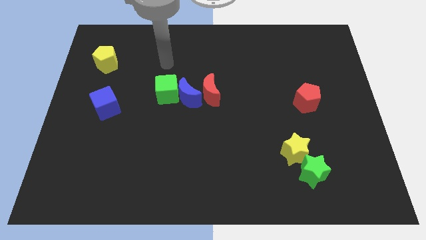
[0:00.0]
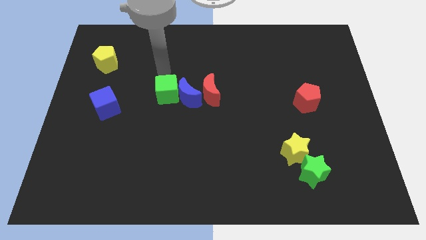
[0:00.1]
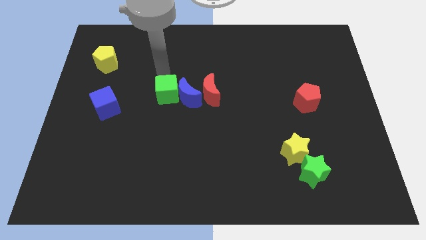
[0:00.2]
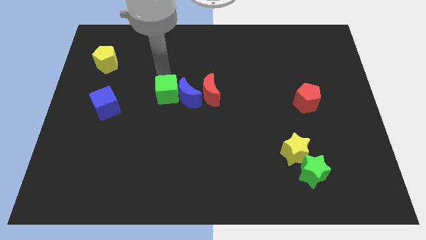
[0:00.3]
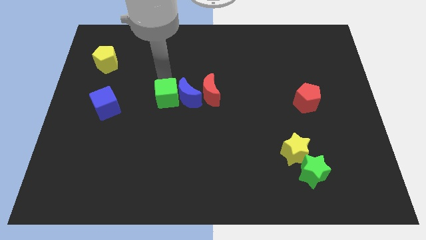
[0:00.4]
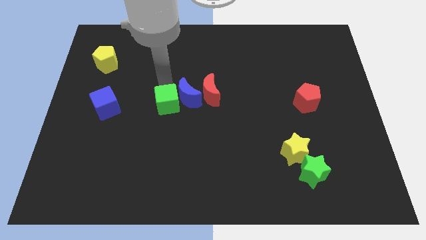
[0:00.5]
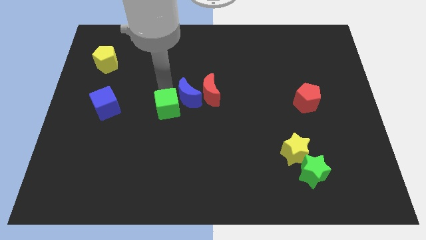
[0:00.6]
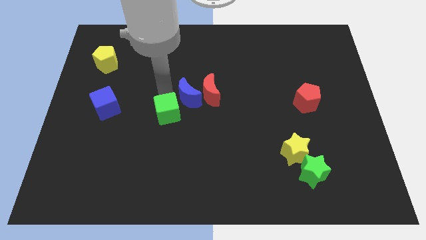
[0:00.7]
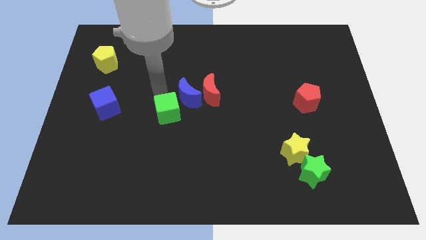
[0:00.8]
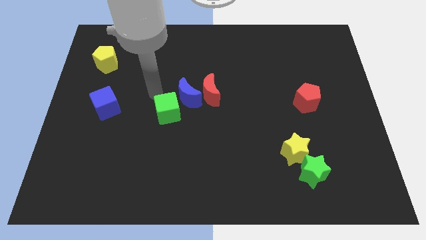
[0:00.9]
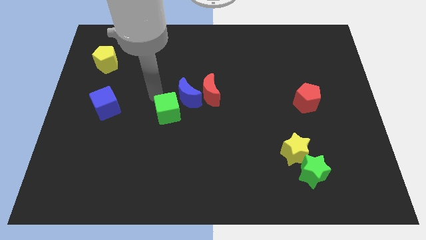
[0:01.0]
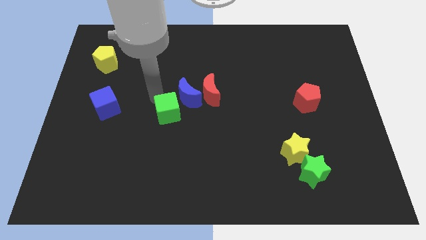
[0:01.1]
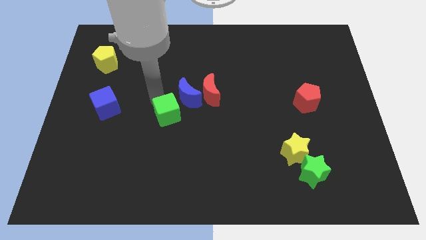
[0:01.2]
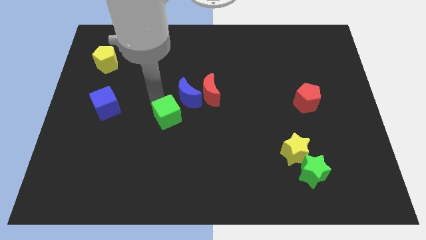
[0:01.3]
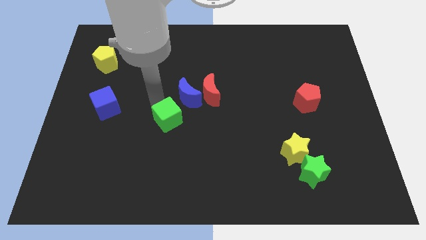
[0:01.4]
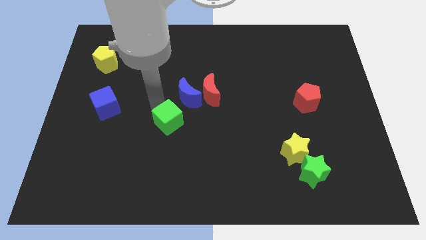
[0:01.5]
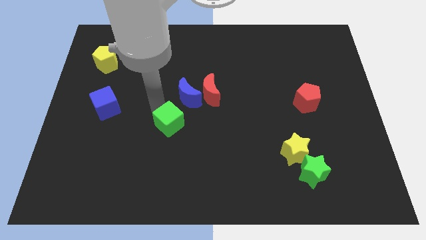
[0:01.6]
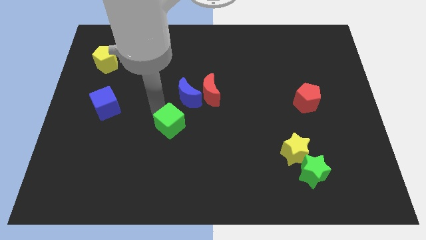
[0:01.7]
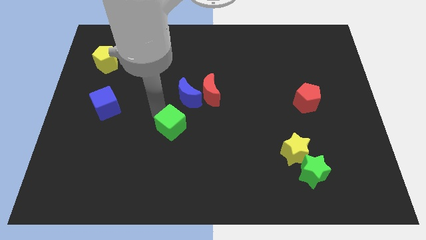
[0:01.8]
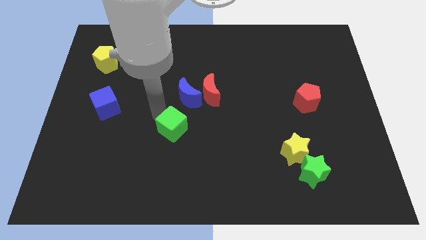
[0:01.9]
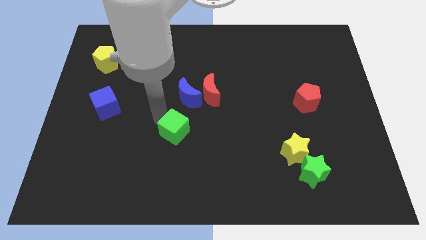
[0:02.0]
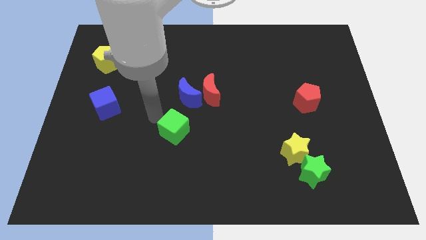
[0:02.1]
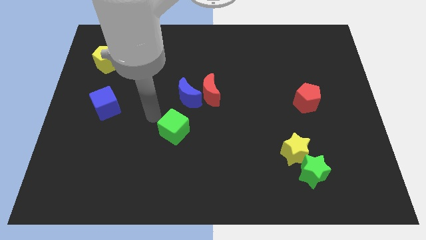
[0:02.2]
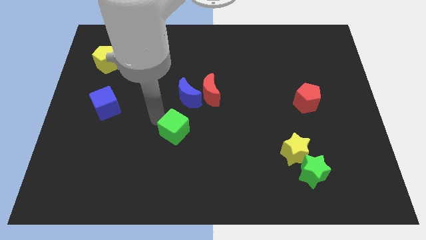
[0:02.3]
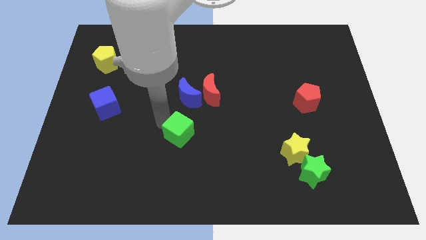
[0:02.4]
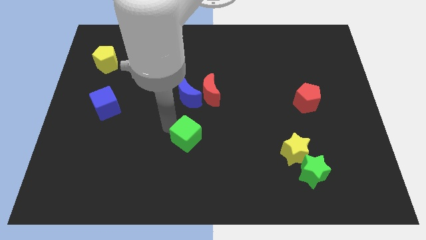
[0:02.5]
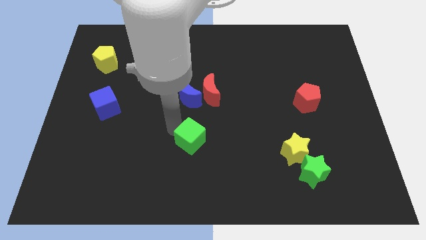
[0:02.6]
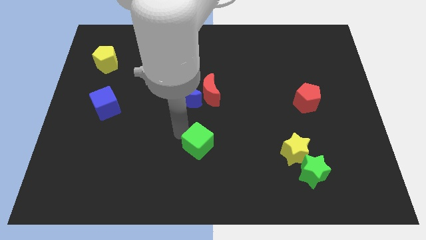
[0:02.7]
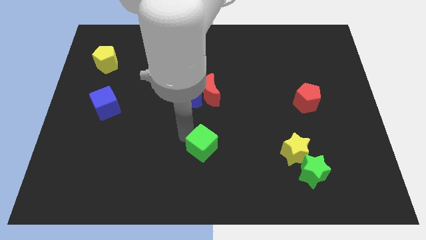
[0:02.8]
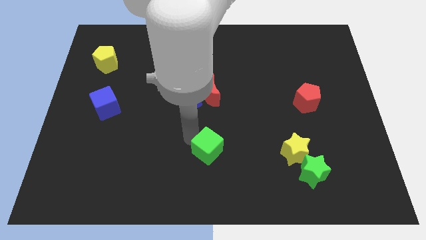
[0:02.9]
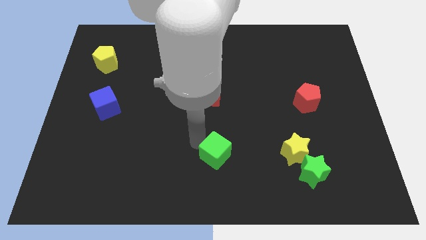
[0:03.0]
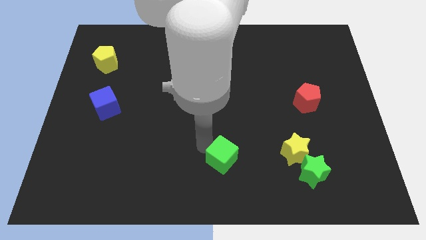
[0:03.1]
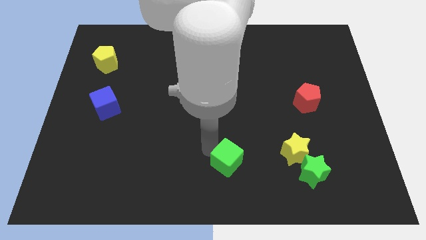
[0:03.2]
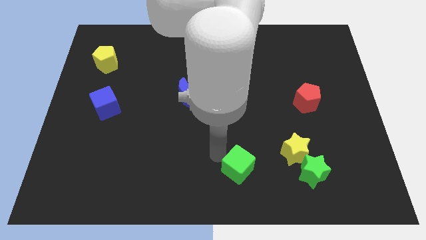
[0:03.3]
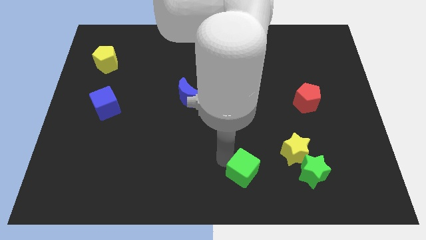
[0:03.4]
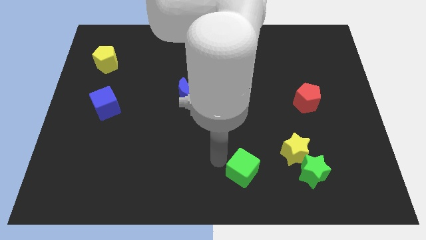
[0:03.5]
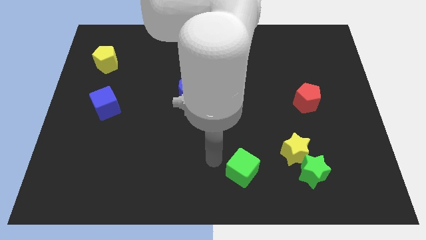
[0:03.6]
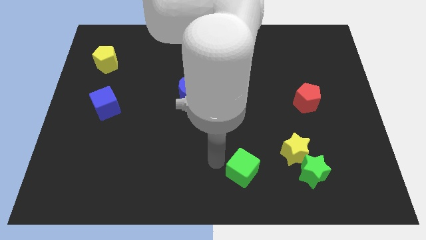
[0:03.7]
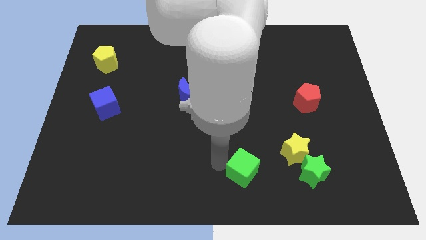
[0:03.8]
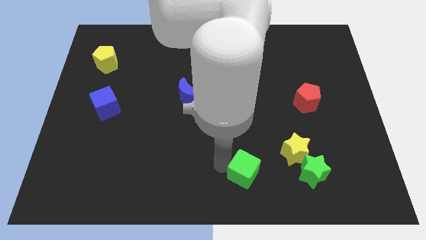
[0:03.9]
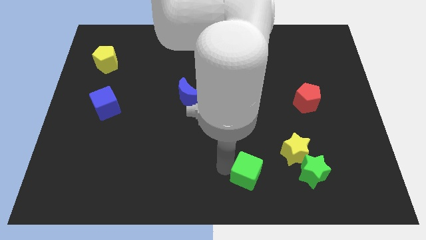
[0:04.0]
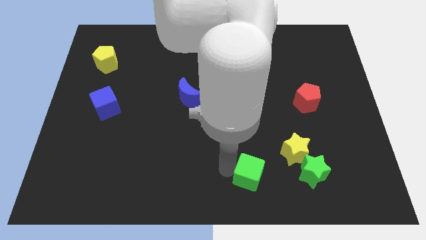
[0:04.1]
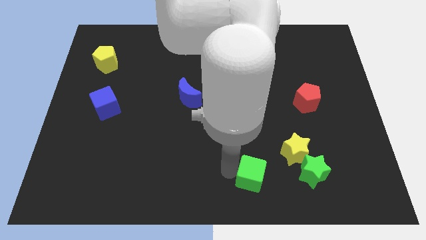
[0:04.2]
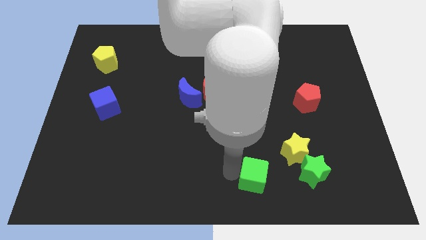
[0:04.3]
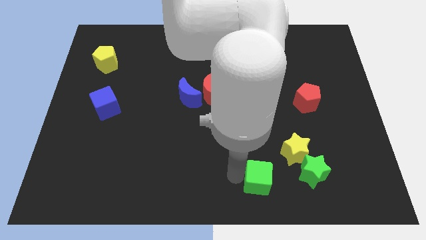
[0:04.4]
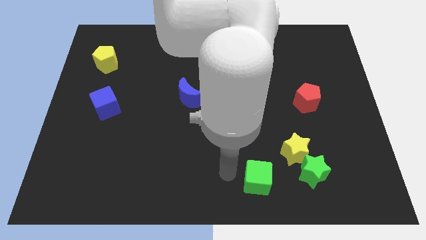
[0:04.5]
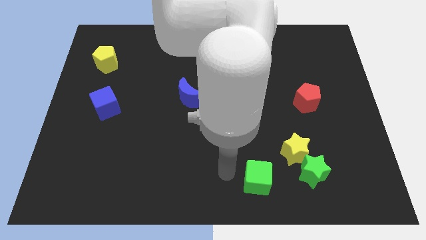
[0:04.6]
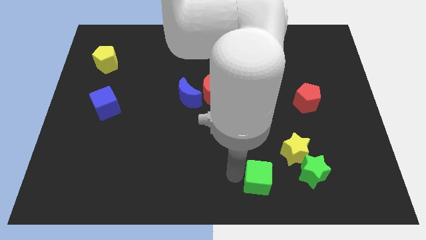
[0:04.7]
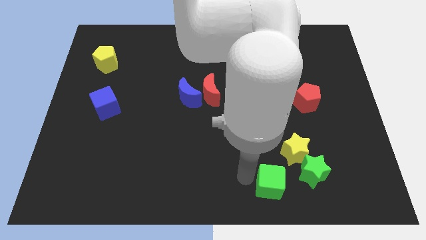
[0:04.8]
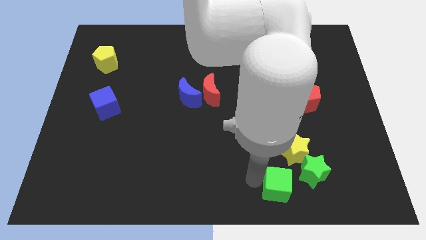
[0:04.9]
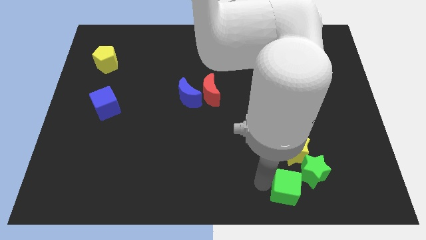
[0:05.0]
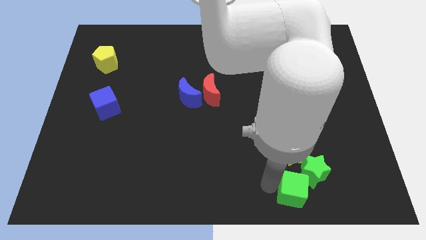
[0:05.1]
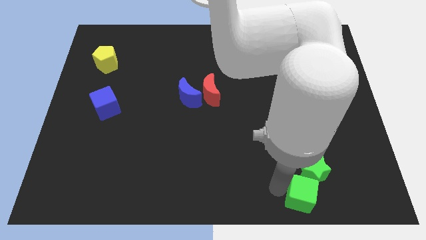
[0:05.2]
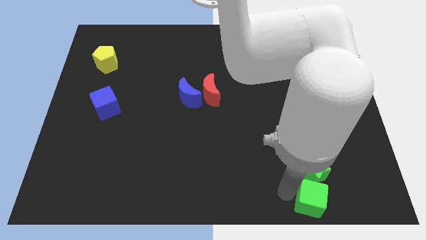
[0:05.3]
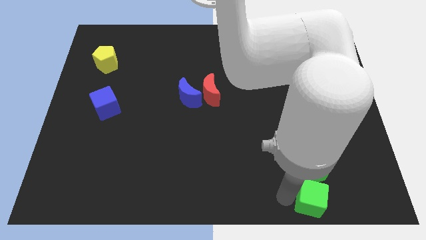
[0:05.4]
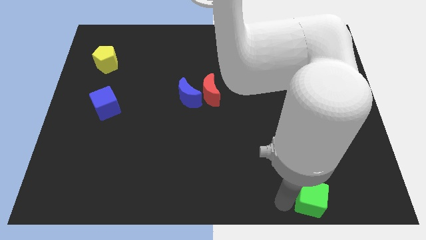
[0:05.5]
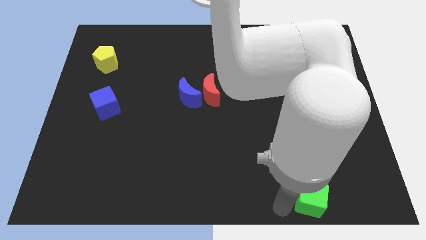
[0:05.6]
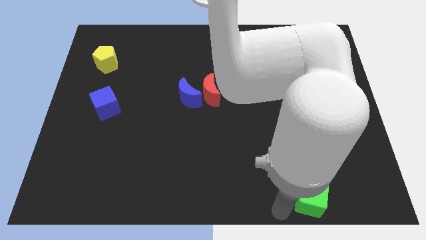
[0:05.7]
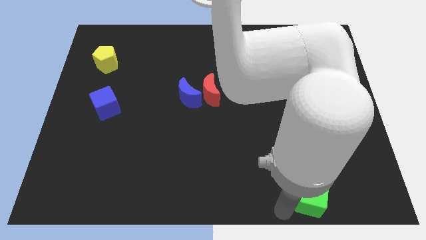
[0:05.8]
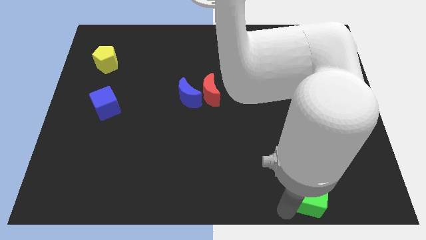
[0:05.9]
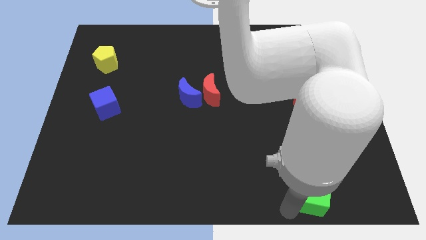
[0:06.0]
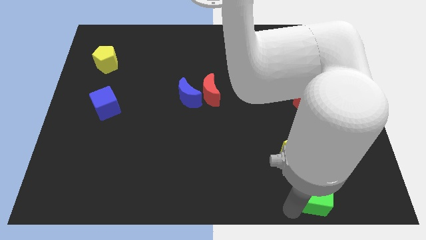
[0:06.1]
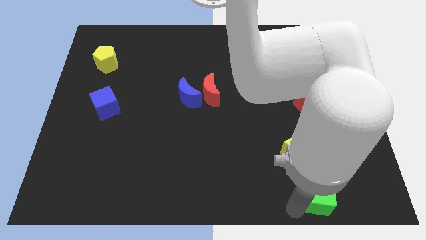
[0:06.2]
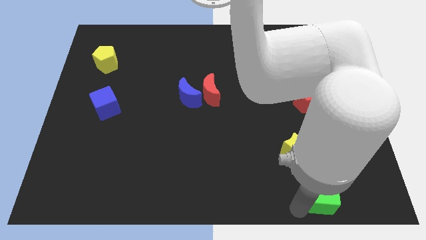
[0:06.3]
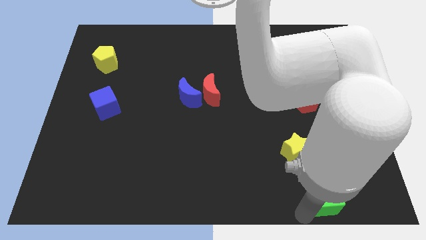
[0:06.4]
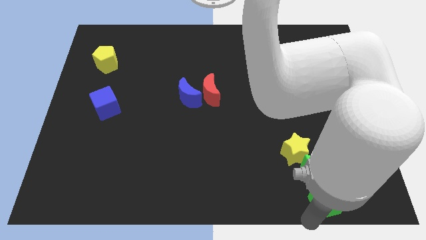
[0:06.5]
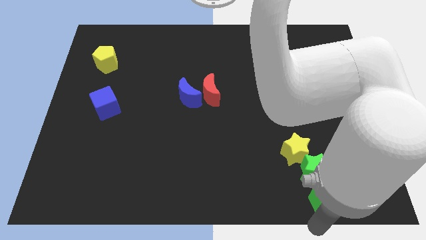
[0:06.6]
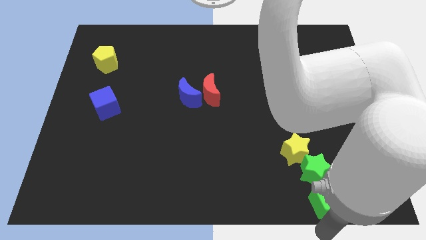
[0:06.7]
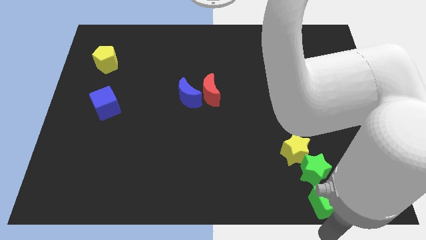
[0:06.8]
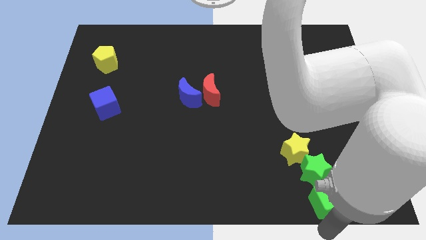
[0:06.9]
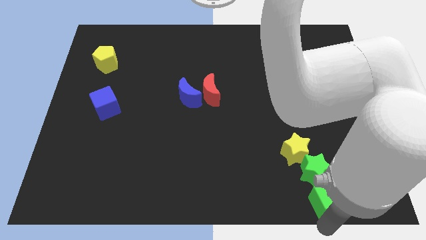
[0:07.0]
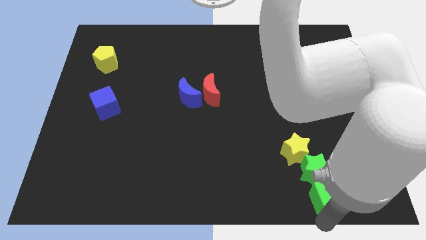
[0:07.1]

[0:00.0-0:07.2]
move the green cube diagonally down and to the right of the yellow star
